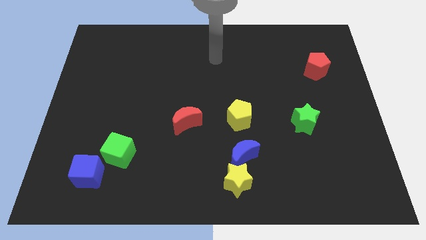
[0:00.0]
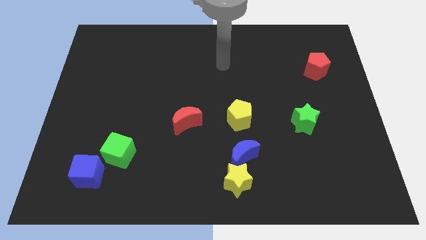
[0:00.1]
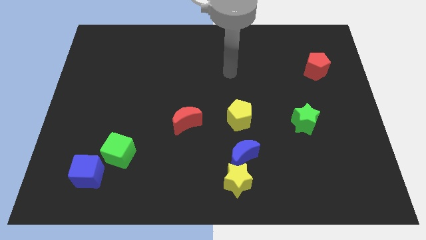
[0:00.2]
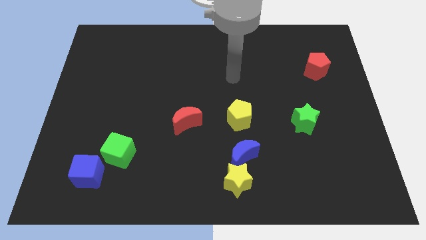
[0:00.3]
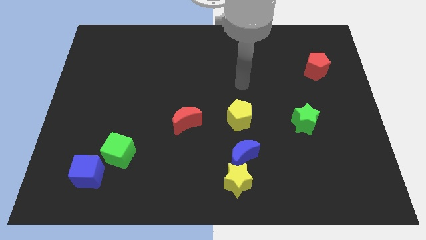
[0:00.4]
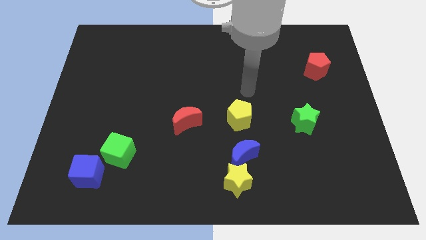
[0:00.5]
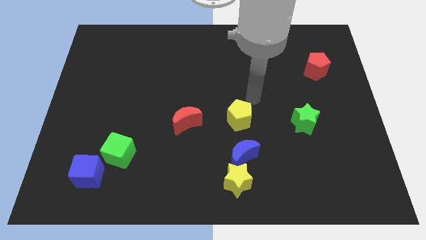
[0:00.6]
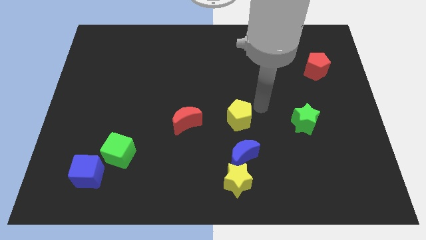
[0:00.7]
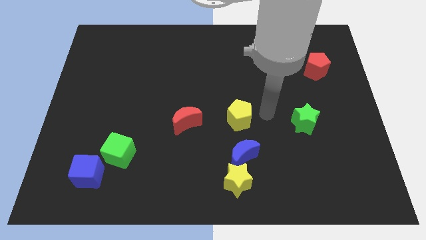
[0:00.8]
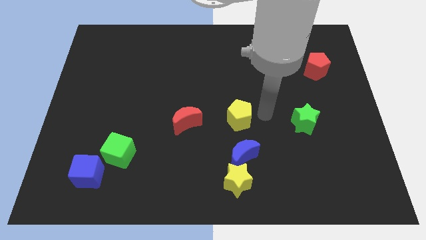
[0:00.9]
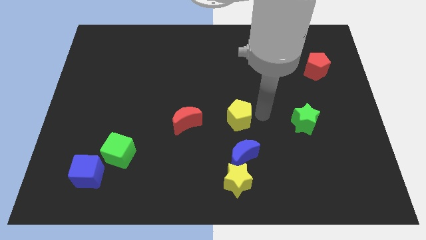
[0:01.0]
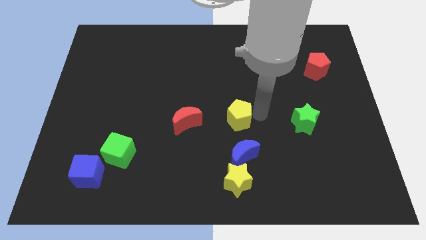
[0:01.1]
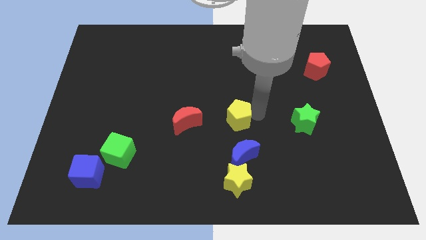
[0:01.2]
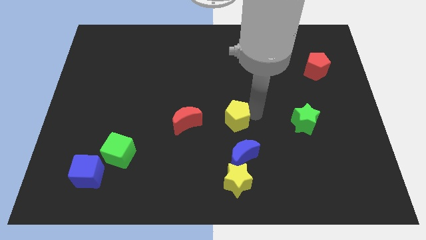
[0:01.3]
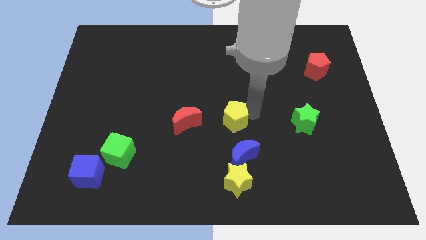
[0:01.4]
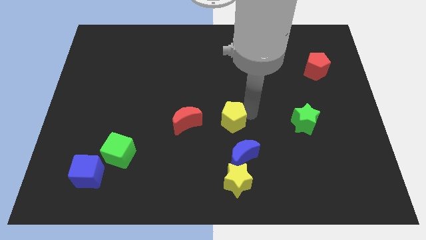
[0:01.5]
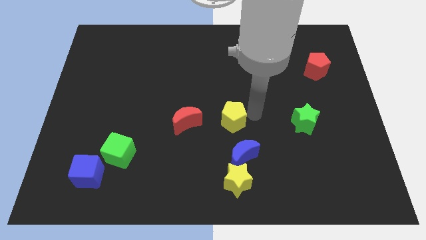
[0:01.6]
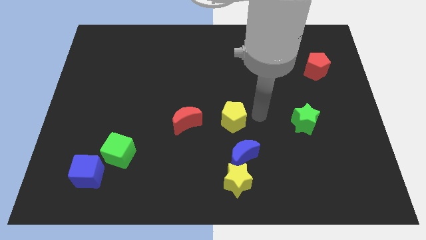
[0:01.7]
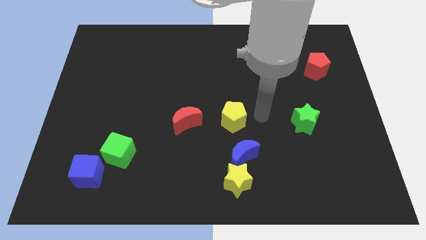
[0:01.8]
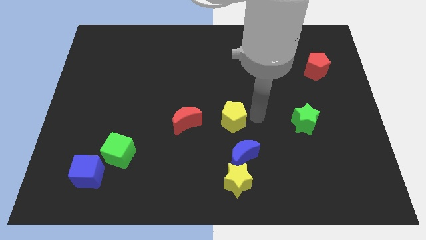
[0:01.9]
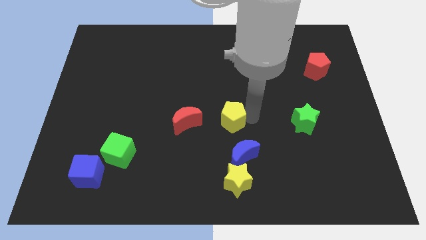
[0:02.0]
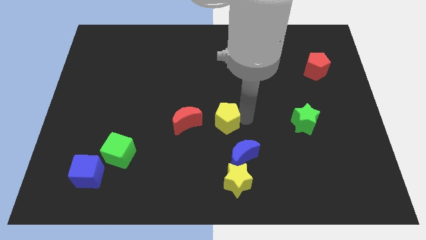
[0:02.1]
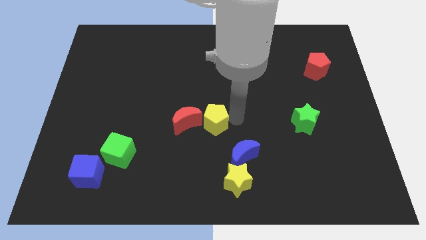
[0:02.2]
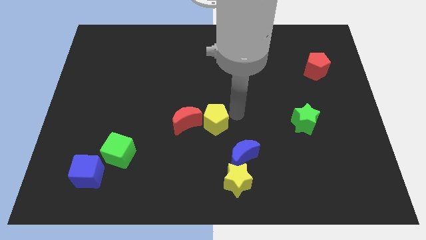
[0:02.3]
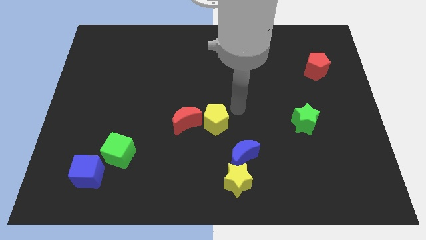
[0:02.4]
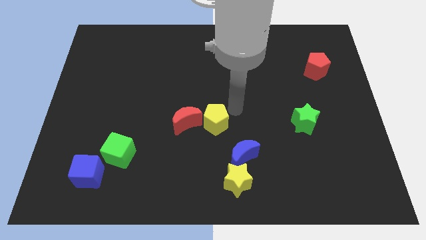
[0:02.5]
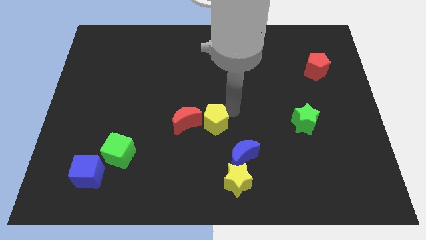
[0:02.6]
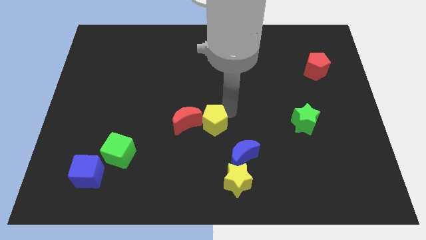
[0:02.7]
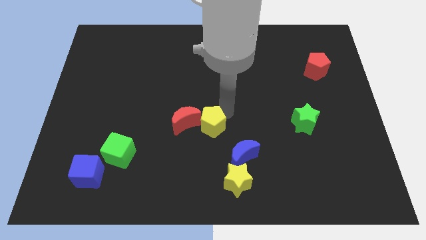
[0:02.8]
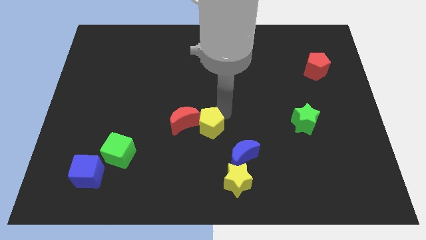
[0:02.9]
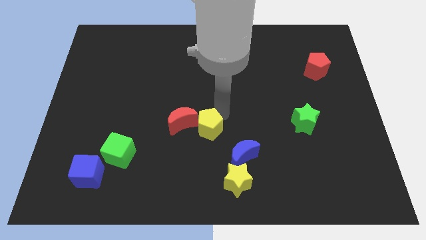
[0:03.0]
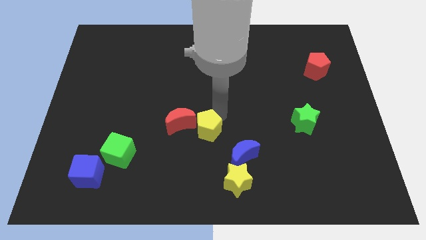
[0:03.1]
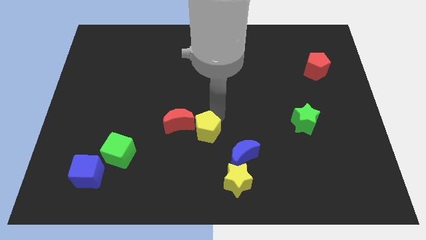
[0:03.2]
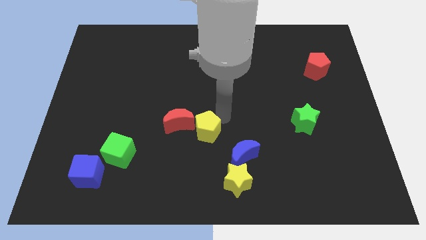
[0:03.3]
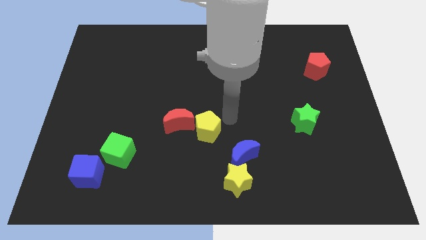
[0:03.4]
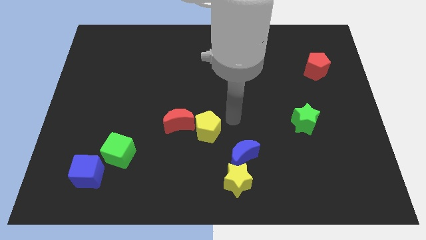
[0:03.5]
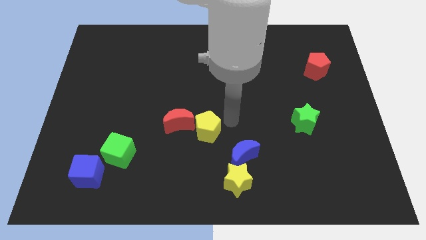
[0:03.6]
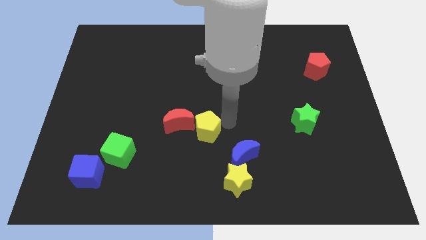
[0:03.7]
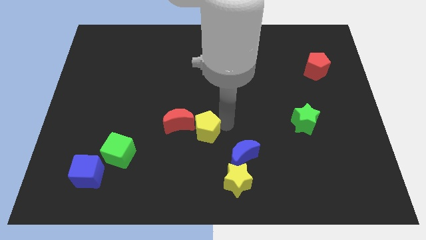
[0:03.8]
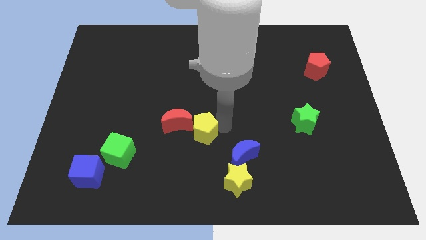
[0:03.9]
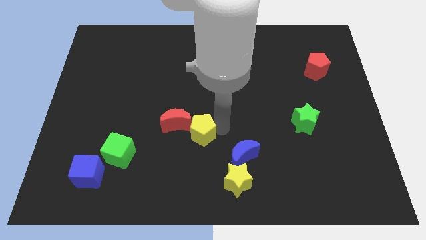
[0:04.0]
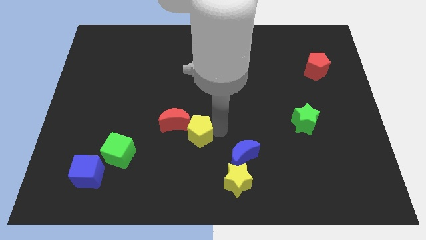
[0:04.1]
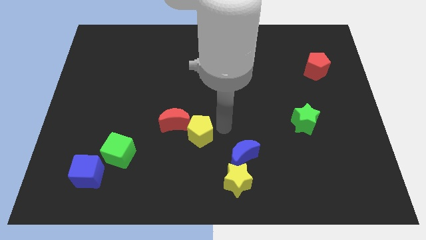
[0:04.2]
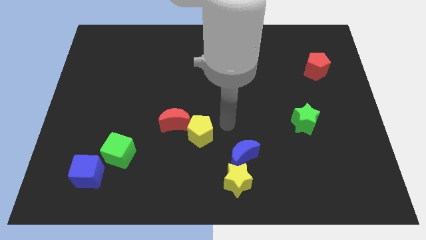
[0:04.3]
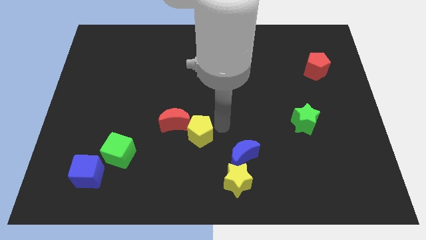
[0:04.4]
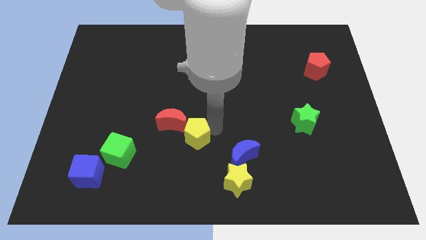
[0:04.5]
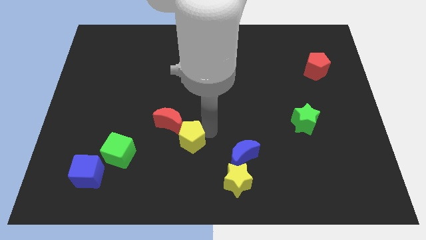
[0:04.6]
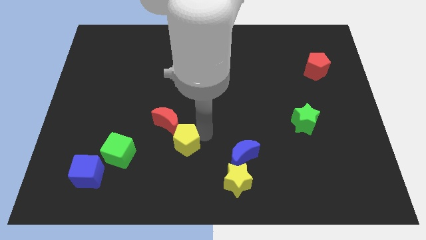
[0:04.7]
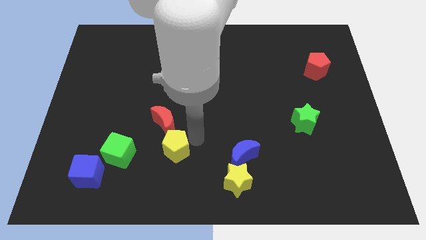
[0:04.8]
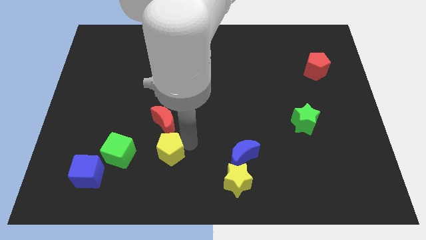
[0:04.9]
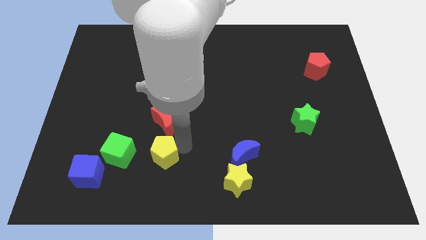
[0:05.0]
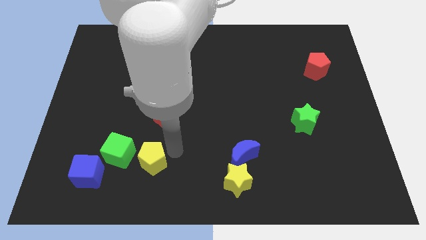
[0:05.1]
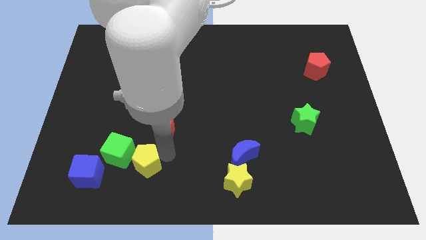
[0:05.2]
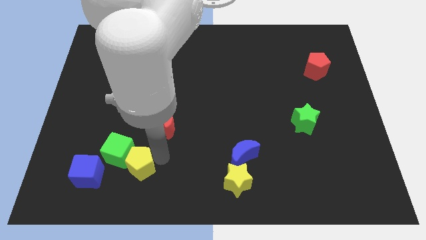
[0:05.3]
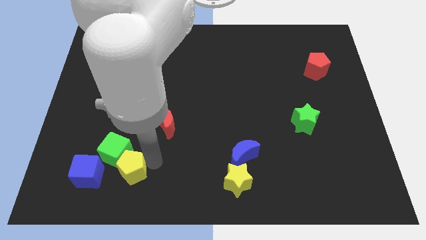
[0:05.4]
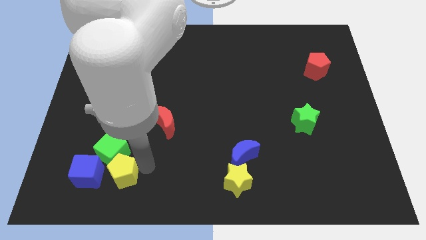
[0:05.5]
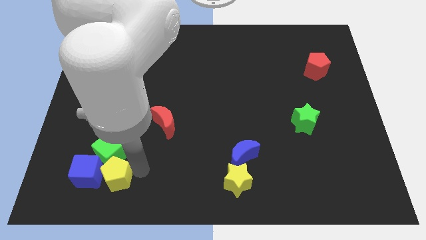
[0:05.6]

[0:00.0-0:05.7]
push the yellow pentagon to the blue cube

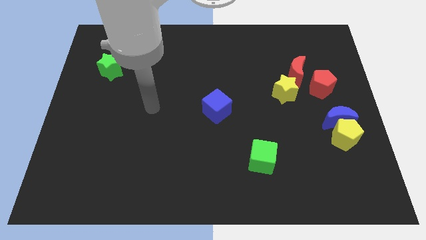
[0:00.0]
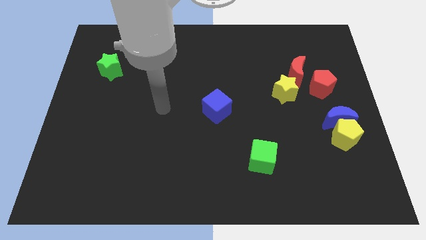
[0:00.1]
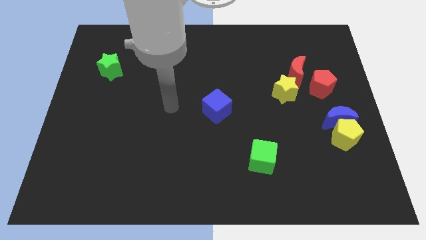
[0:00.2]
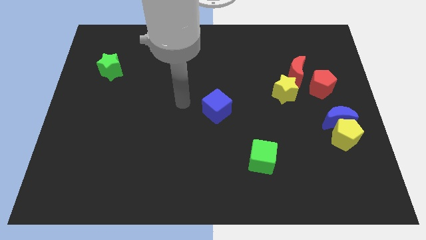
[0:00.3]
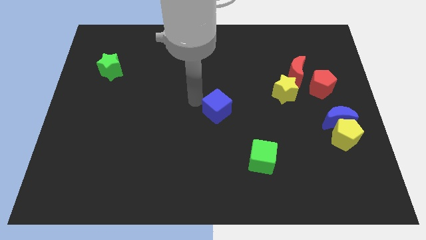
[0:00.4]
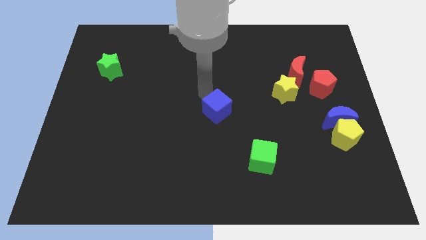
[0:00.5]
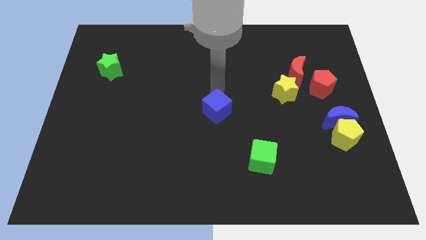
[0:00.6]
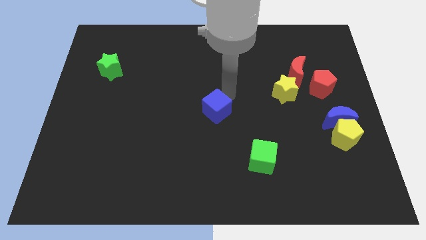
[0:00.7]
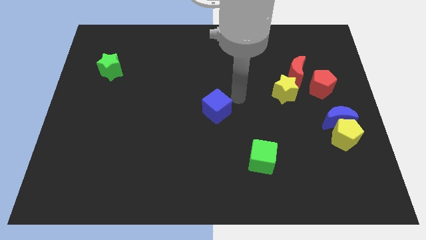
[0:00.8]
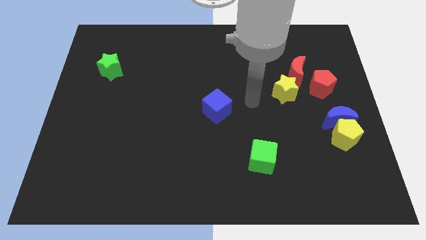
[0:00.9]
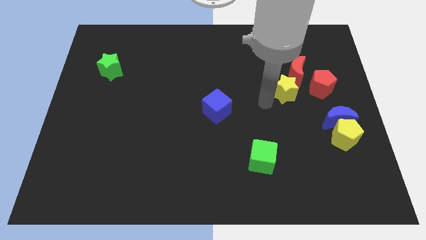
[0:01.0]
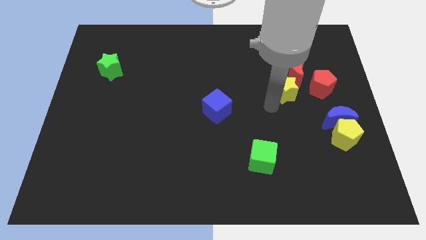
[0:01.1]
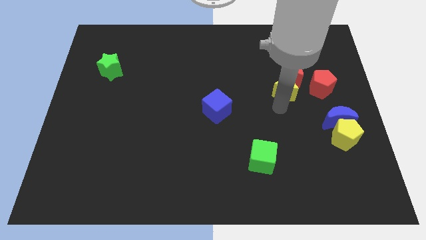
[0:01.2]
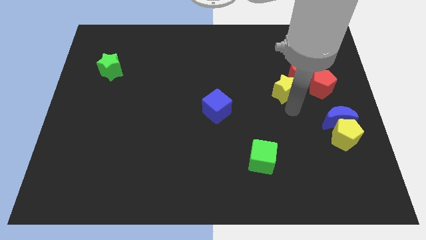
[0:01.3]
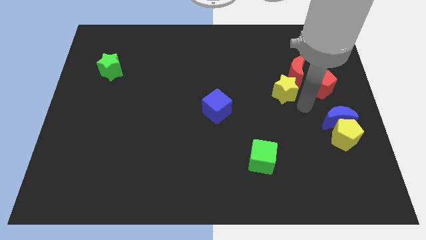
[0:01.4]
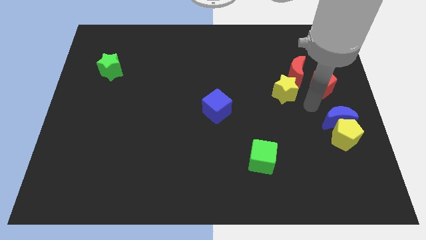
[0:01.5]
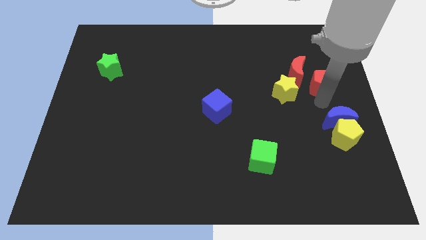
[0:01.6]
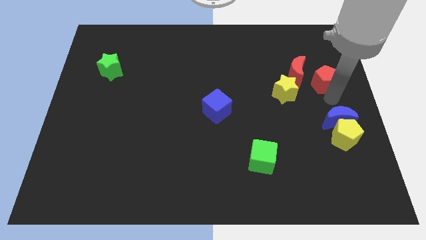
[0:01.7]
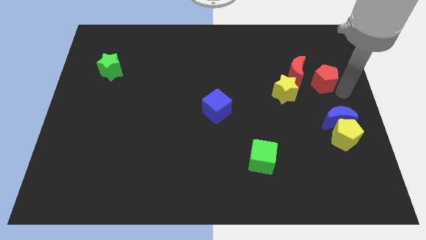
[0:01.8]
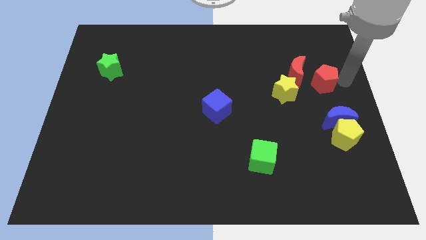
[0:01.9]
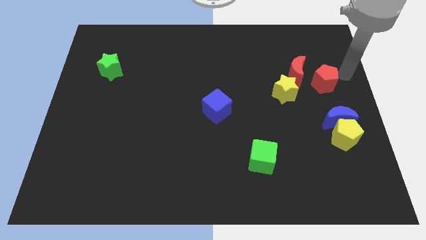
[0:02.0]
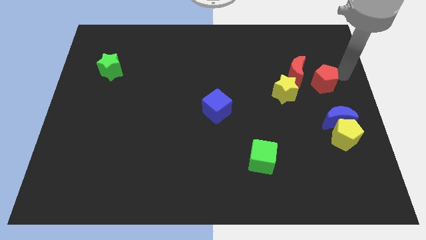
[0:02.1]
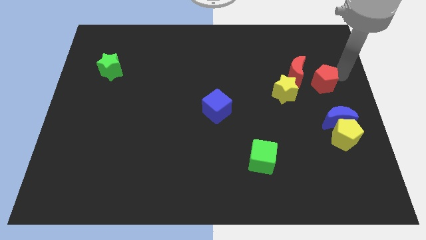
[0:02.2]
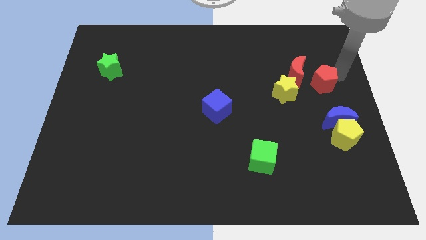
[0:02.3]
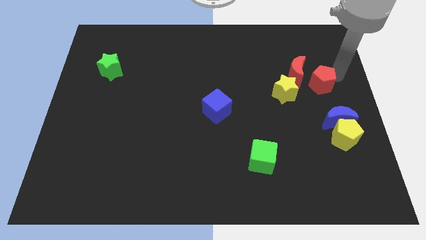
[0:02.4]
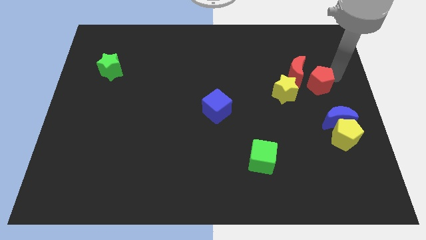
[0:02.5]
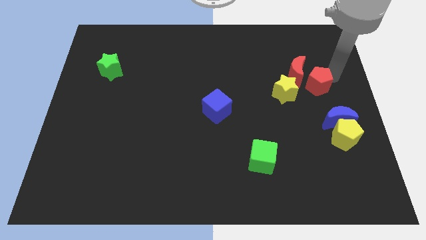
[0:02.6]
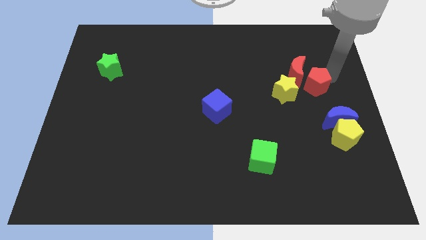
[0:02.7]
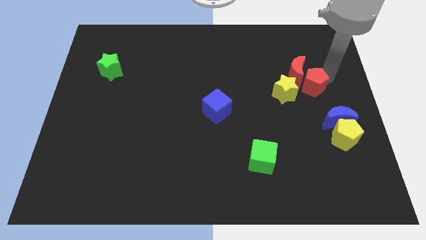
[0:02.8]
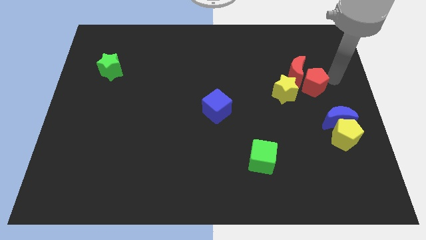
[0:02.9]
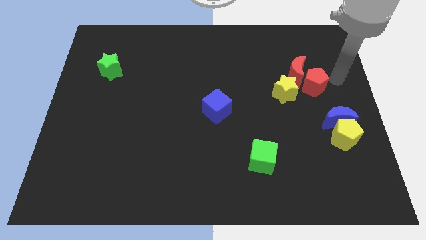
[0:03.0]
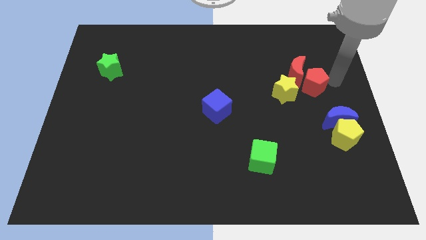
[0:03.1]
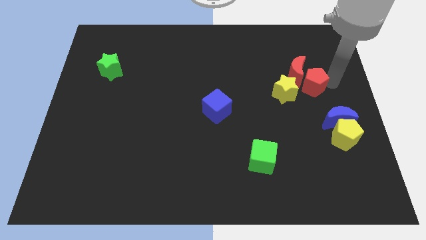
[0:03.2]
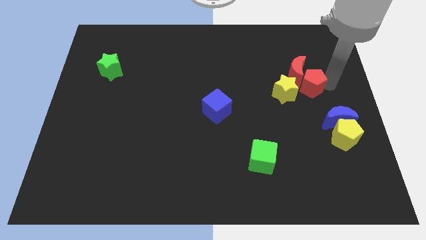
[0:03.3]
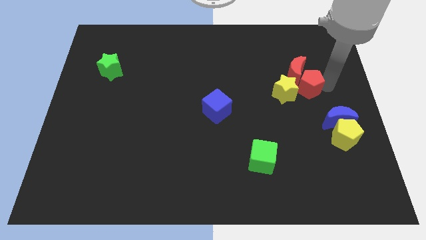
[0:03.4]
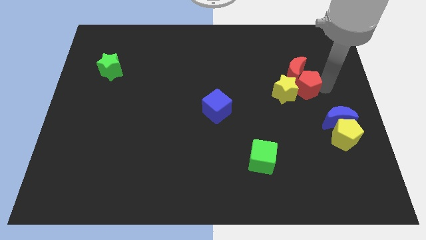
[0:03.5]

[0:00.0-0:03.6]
slide the red pentagon next to the yellow star
